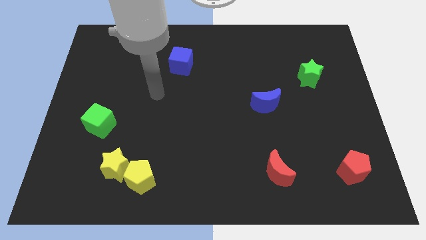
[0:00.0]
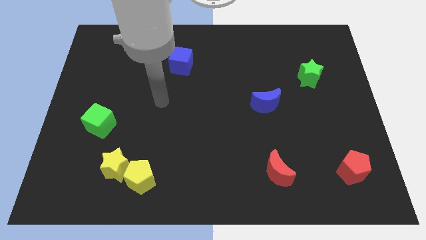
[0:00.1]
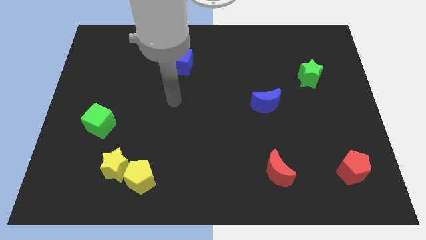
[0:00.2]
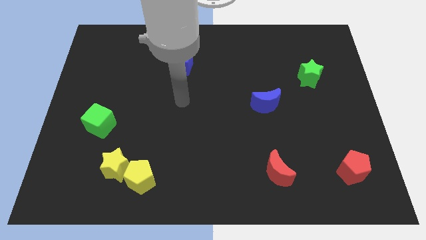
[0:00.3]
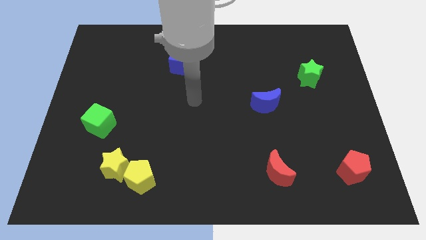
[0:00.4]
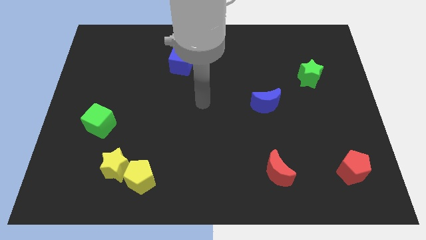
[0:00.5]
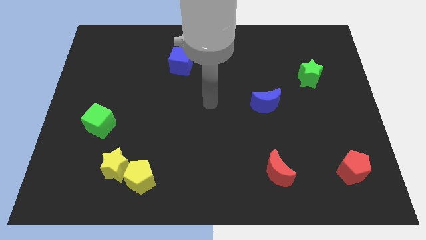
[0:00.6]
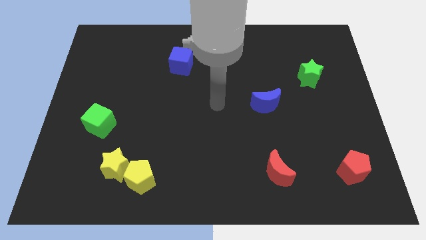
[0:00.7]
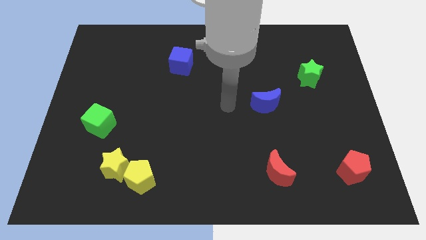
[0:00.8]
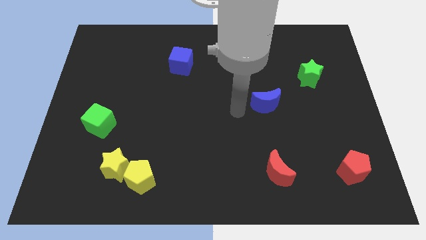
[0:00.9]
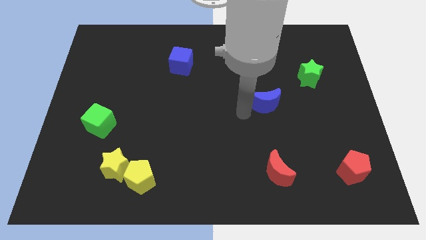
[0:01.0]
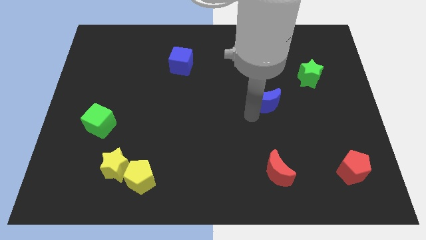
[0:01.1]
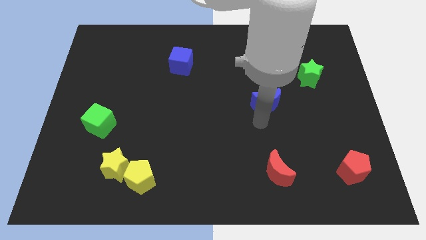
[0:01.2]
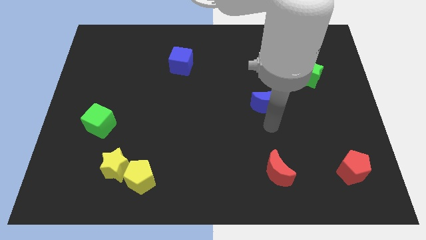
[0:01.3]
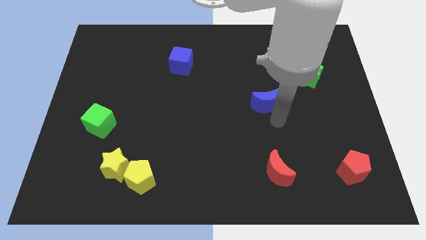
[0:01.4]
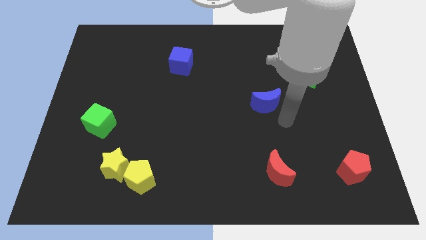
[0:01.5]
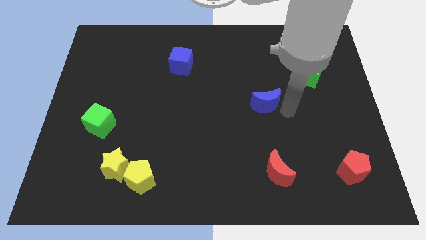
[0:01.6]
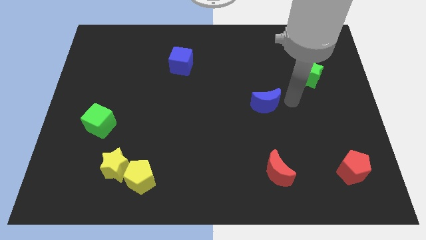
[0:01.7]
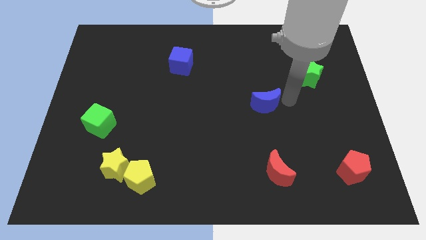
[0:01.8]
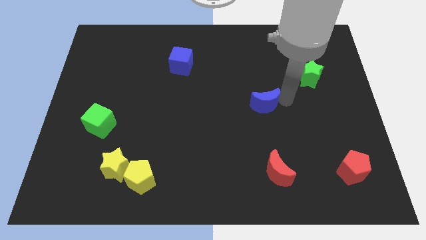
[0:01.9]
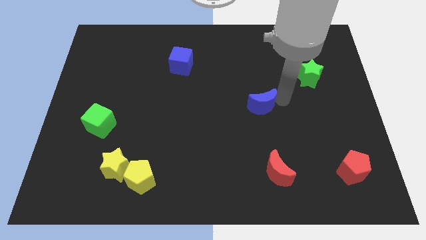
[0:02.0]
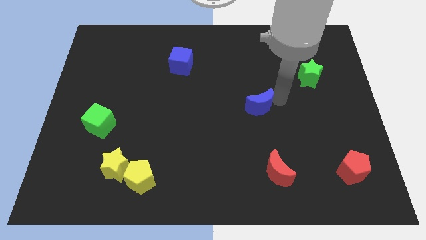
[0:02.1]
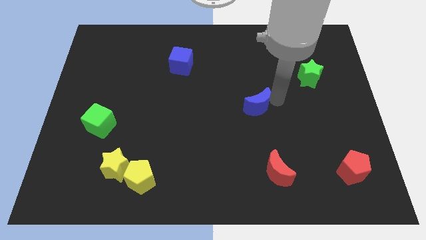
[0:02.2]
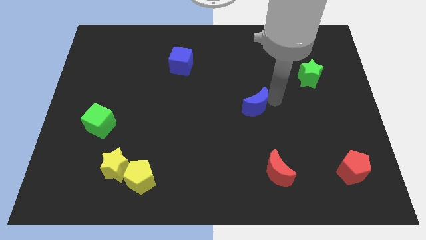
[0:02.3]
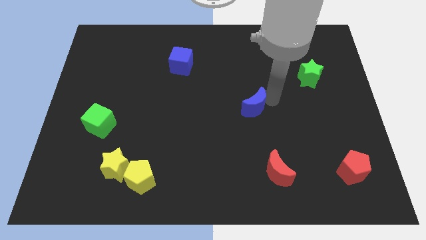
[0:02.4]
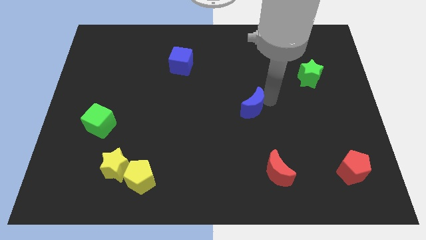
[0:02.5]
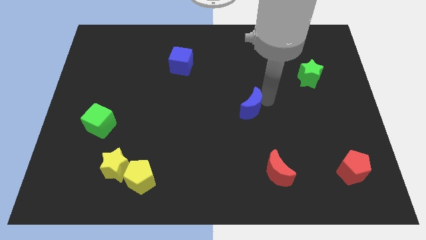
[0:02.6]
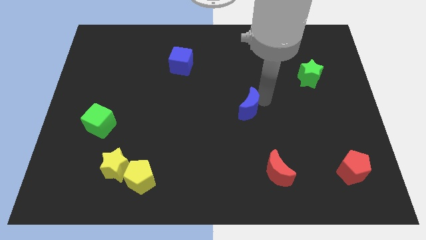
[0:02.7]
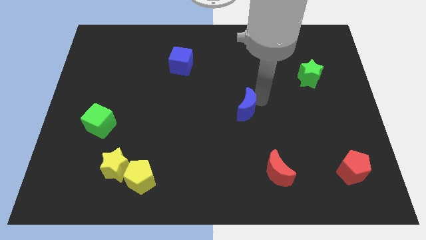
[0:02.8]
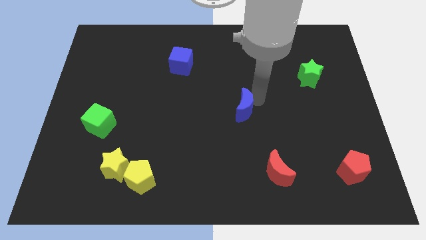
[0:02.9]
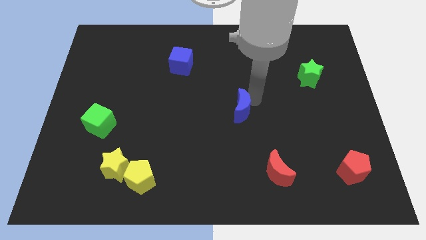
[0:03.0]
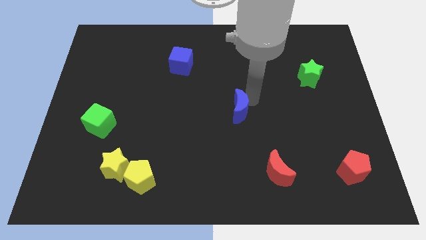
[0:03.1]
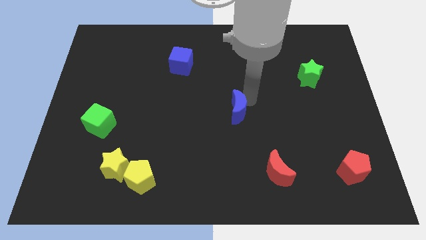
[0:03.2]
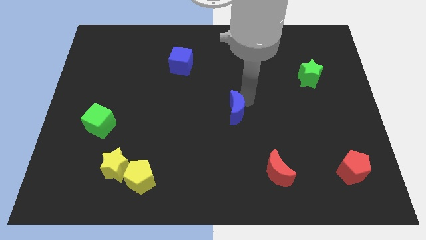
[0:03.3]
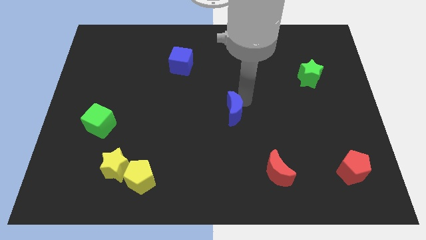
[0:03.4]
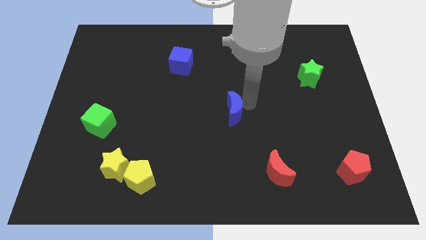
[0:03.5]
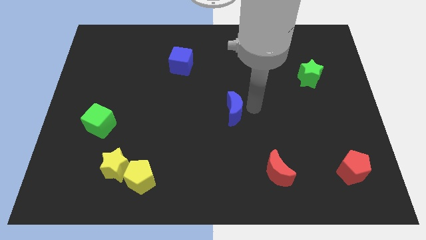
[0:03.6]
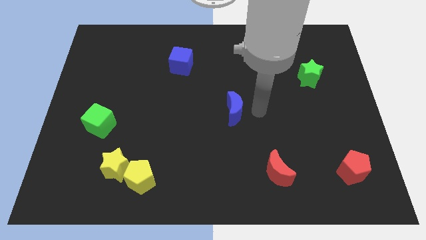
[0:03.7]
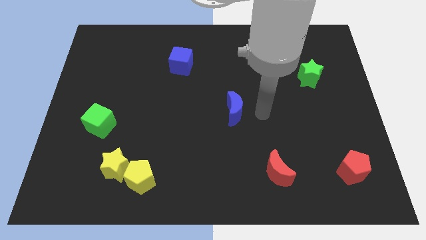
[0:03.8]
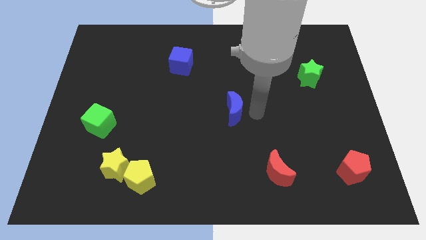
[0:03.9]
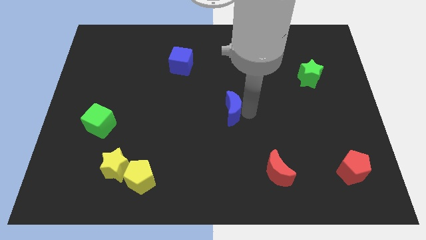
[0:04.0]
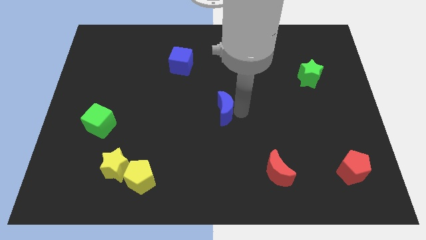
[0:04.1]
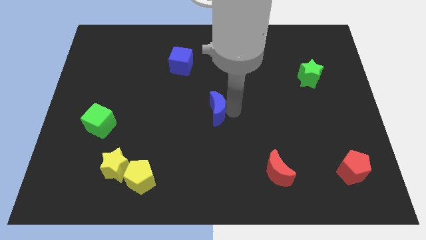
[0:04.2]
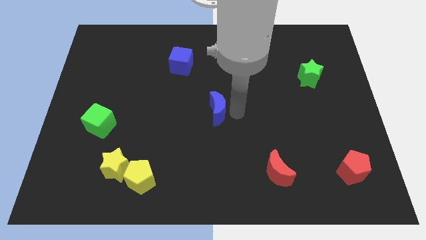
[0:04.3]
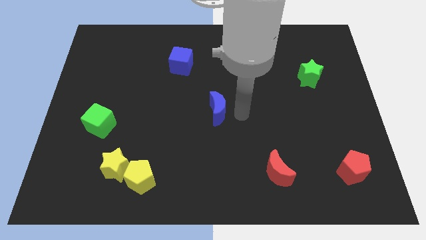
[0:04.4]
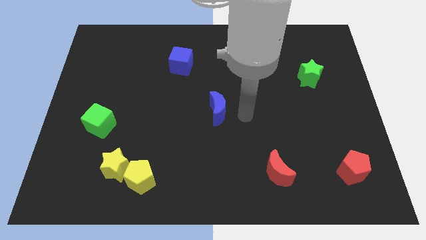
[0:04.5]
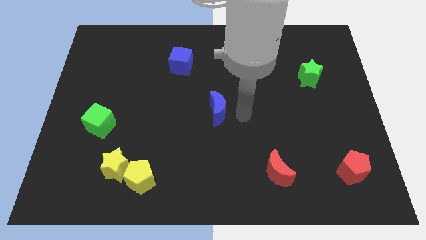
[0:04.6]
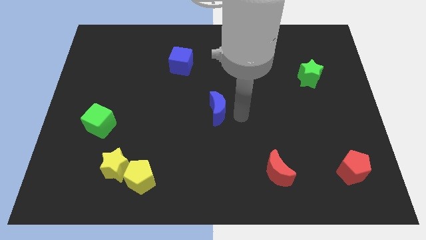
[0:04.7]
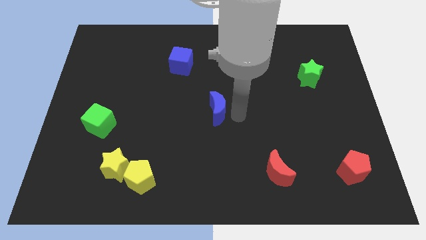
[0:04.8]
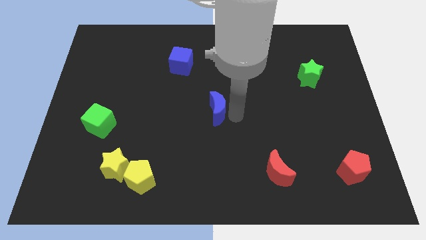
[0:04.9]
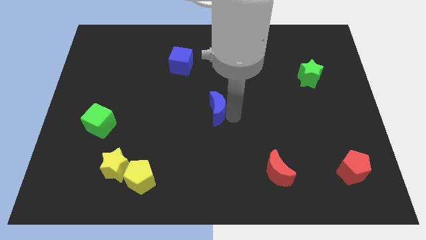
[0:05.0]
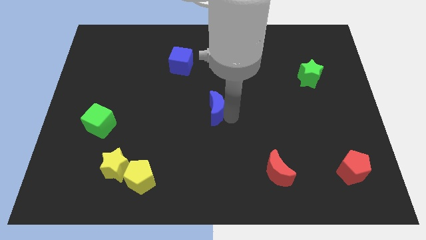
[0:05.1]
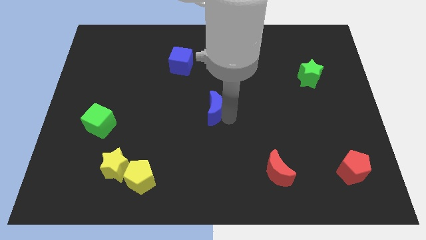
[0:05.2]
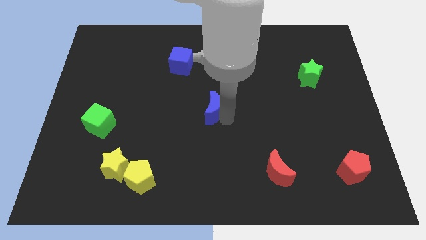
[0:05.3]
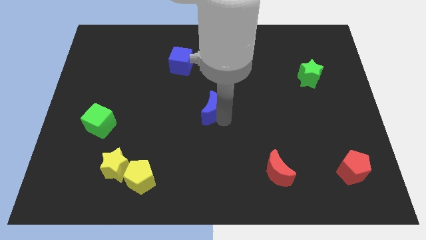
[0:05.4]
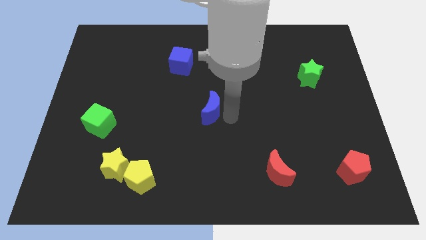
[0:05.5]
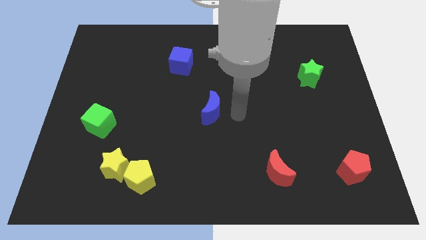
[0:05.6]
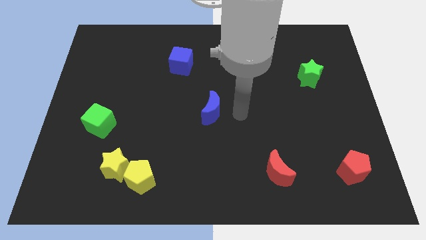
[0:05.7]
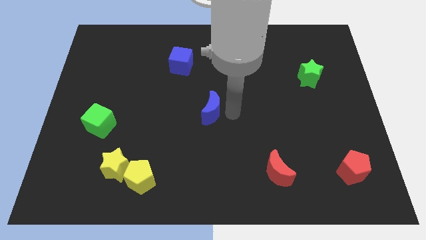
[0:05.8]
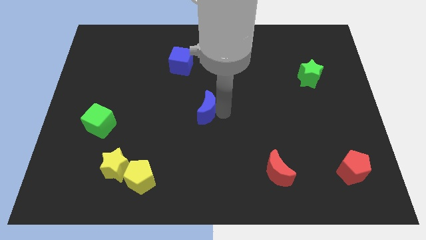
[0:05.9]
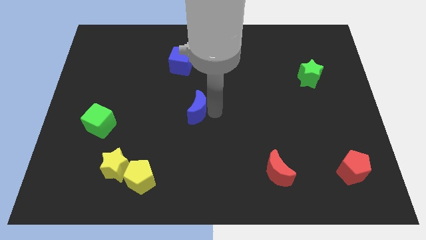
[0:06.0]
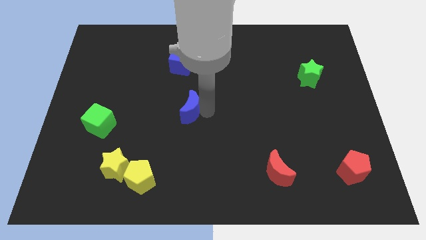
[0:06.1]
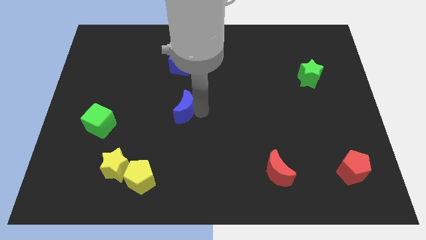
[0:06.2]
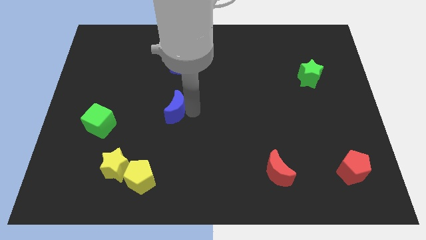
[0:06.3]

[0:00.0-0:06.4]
slide the blue moon left

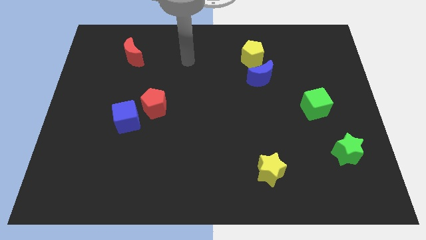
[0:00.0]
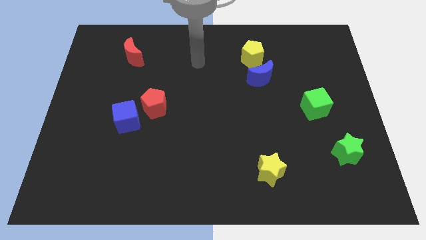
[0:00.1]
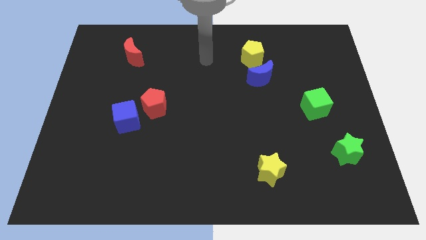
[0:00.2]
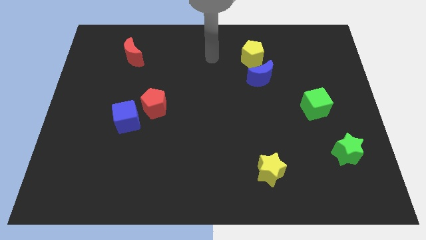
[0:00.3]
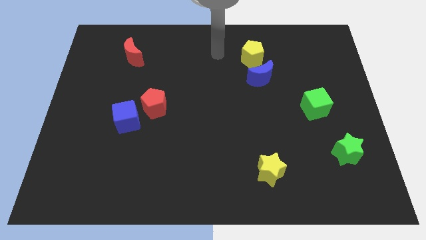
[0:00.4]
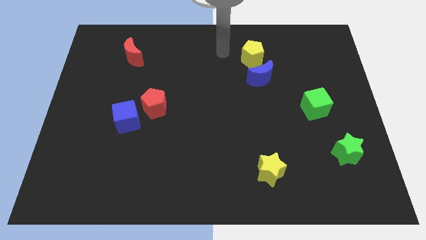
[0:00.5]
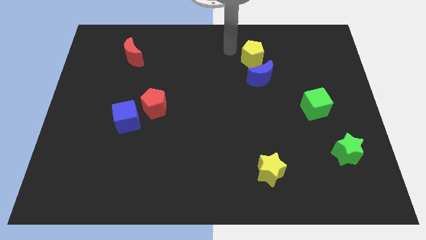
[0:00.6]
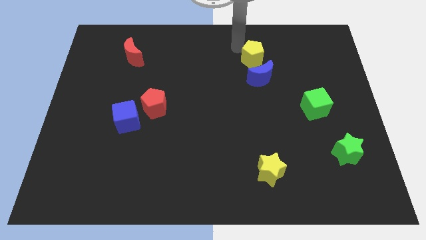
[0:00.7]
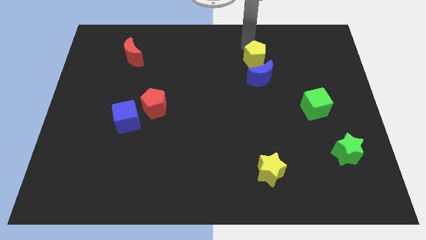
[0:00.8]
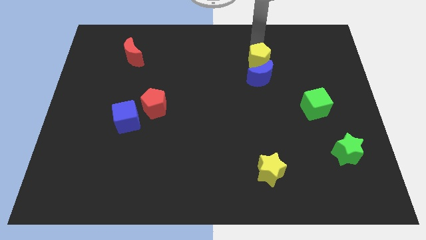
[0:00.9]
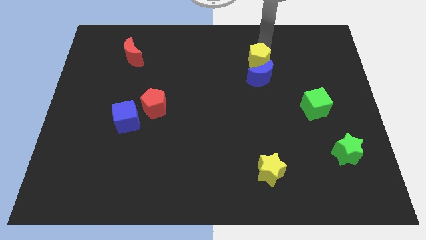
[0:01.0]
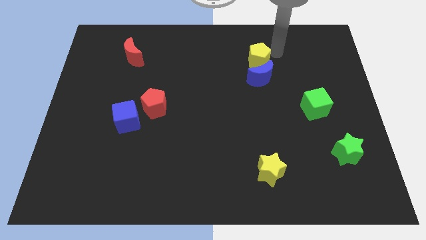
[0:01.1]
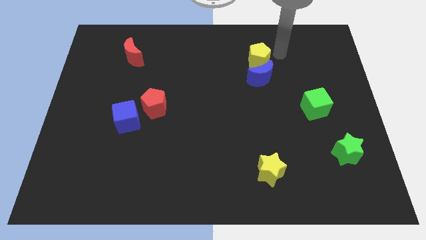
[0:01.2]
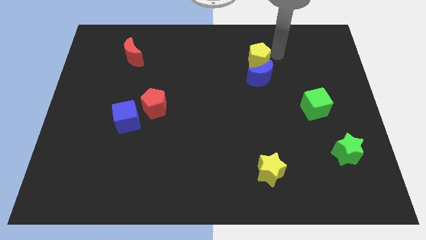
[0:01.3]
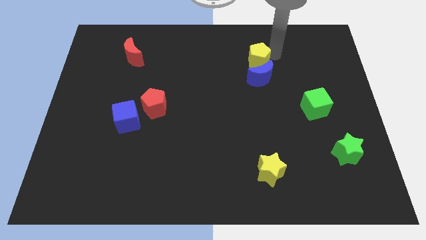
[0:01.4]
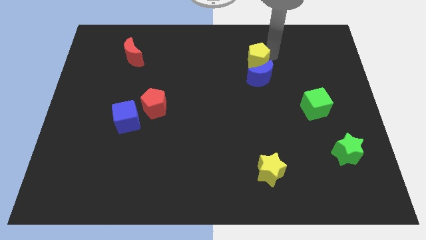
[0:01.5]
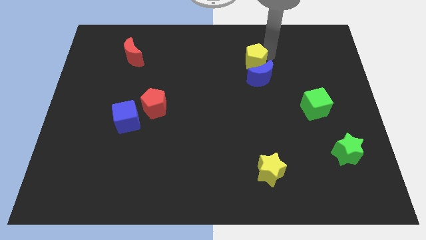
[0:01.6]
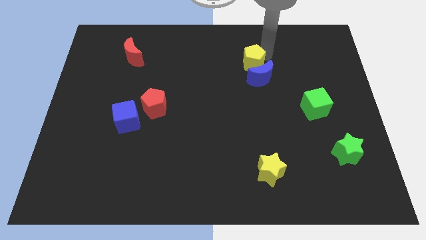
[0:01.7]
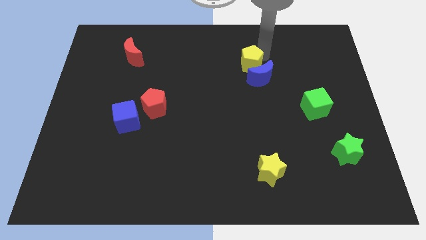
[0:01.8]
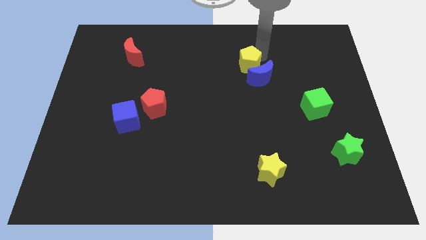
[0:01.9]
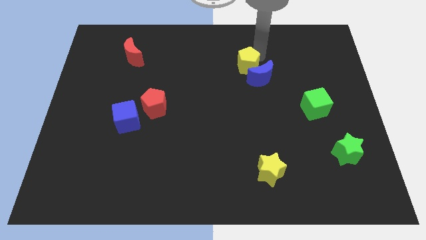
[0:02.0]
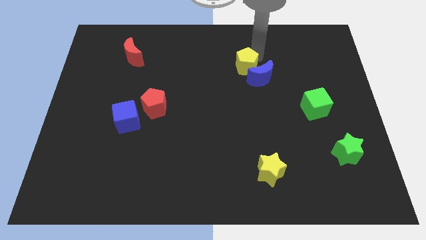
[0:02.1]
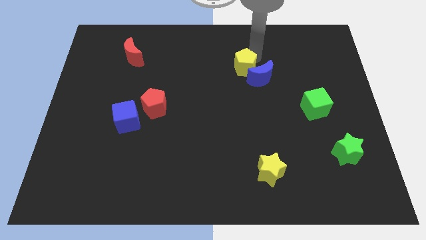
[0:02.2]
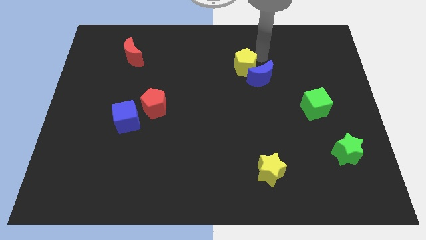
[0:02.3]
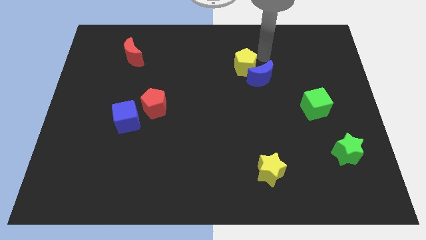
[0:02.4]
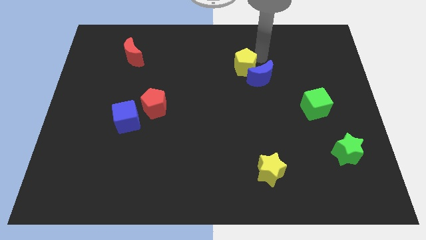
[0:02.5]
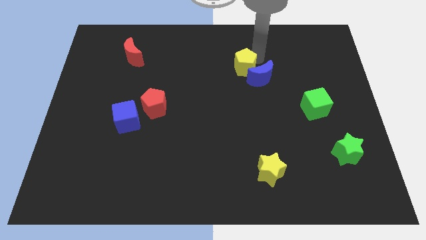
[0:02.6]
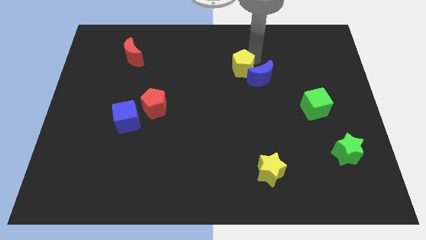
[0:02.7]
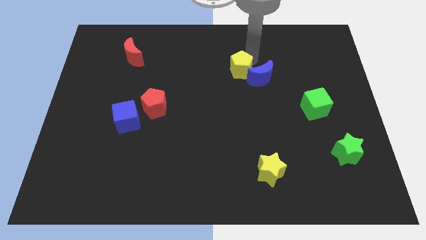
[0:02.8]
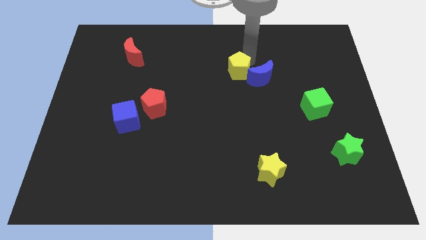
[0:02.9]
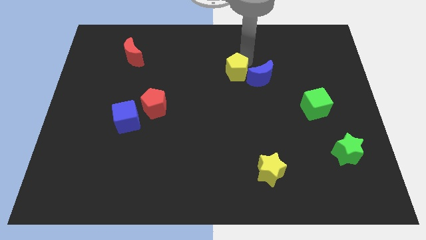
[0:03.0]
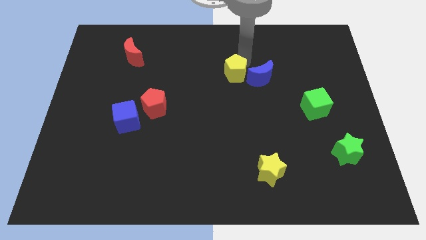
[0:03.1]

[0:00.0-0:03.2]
slide the yellow pentagon downwards and then to the left a bit
